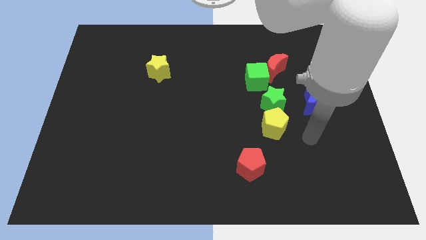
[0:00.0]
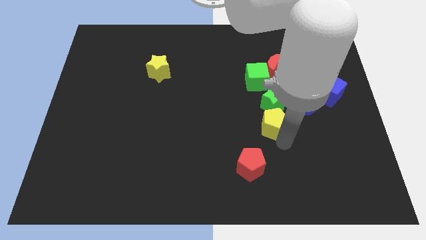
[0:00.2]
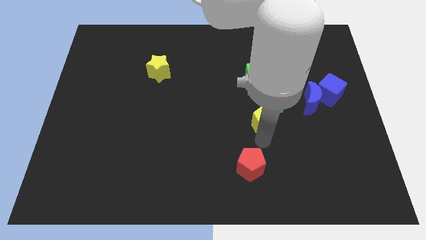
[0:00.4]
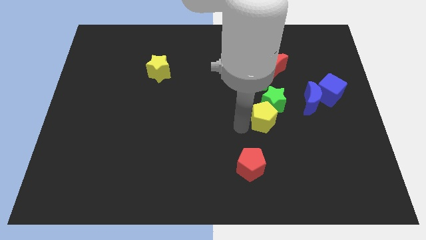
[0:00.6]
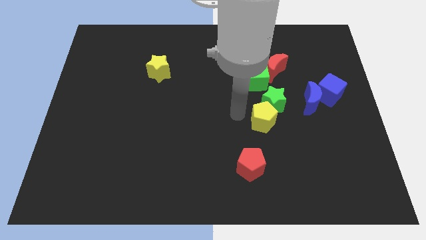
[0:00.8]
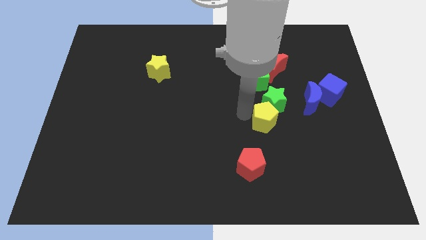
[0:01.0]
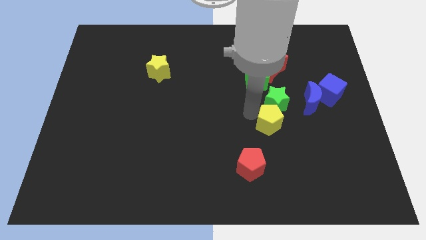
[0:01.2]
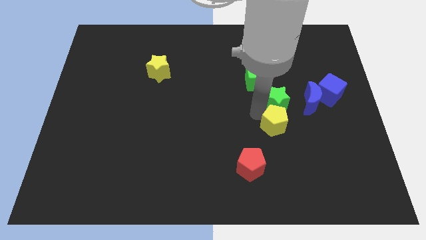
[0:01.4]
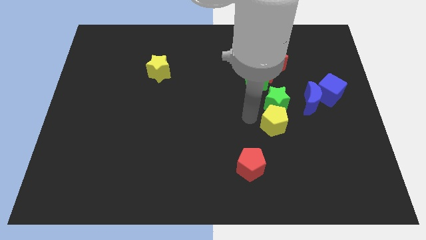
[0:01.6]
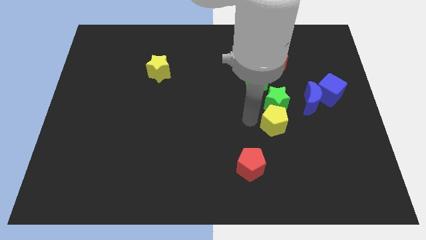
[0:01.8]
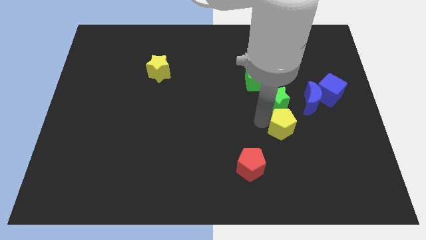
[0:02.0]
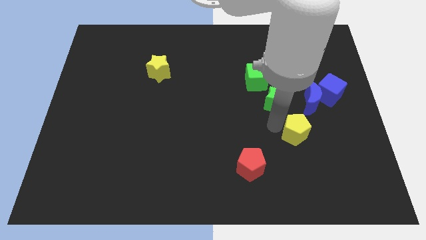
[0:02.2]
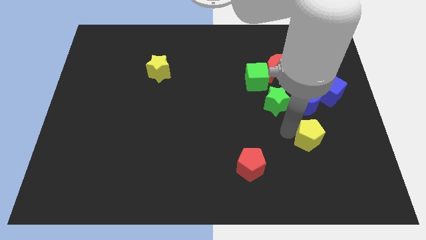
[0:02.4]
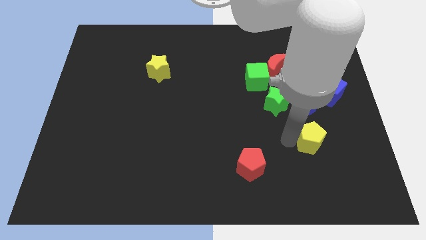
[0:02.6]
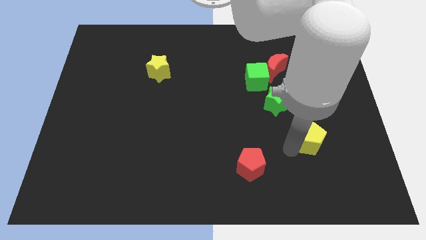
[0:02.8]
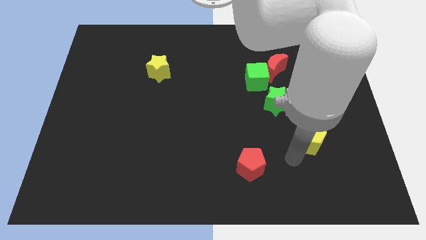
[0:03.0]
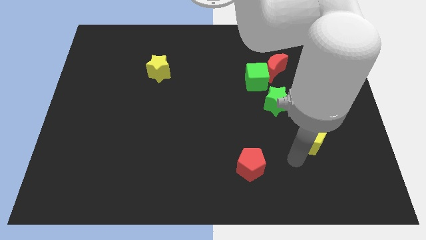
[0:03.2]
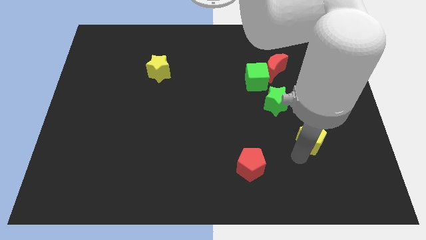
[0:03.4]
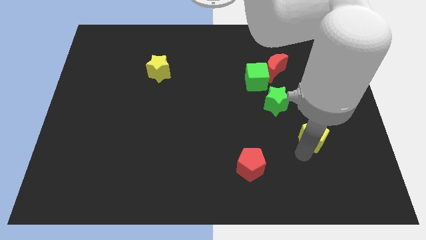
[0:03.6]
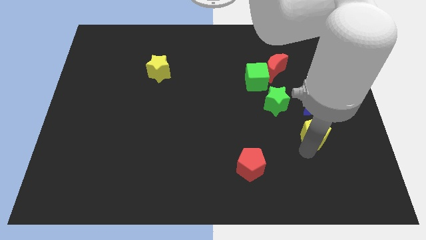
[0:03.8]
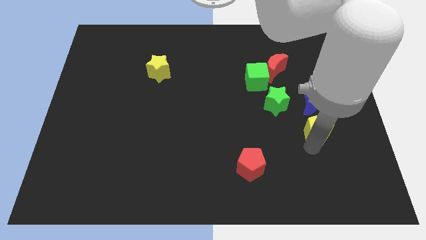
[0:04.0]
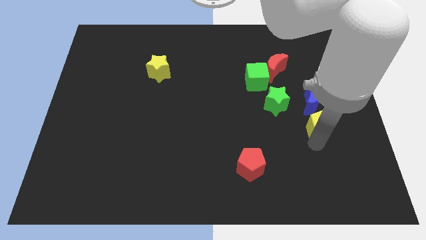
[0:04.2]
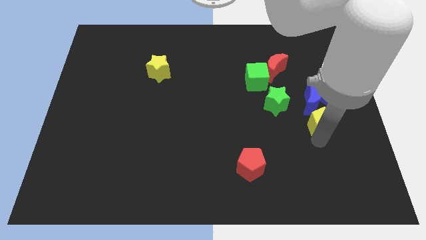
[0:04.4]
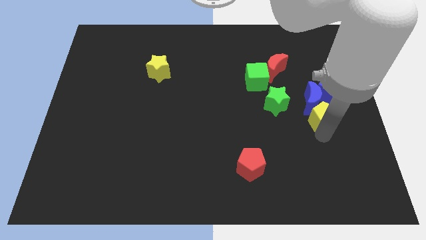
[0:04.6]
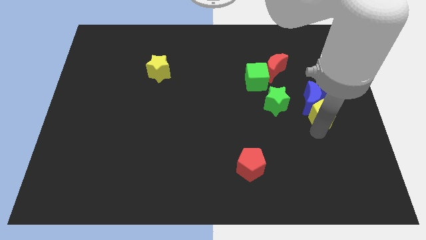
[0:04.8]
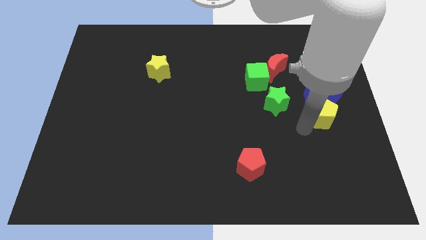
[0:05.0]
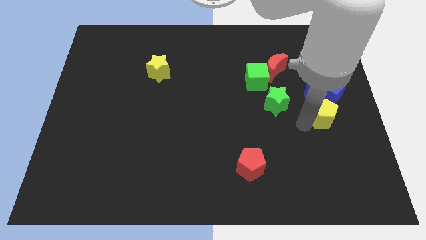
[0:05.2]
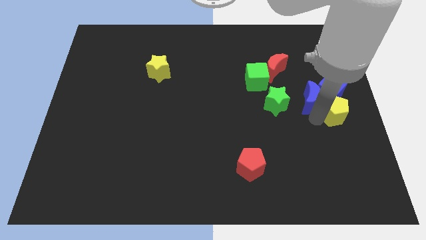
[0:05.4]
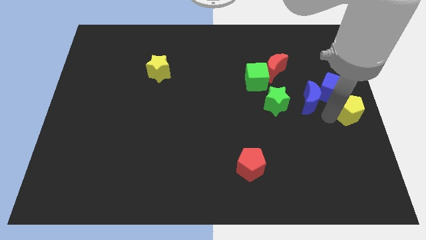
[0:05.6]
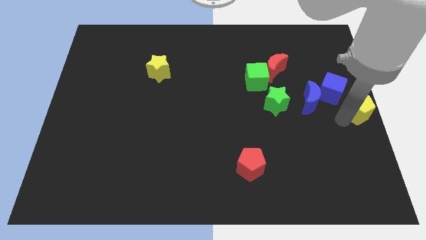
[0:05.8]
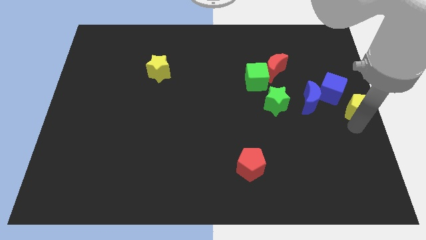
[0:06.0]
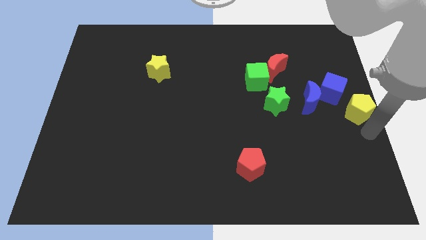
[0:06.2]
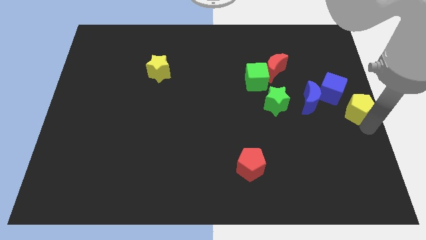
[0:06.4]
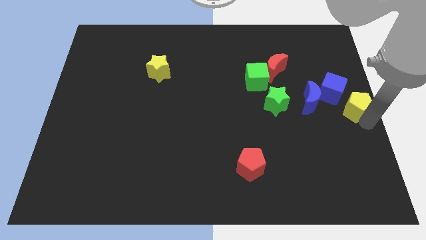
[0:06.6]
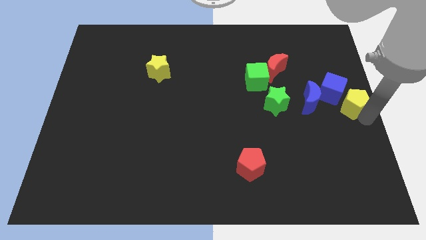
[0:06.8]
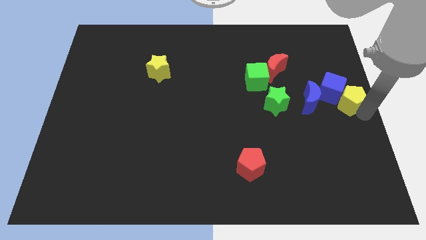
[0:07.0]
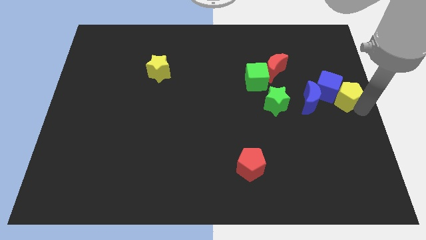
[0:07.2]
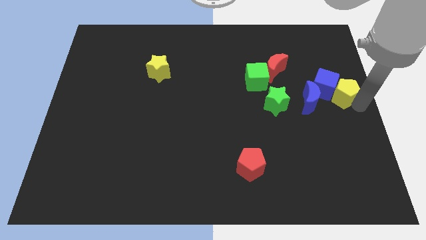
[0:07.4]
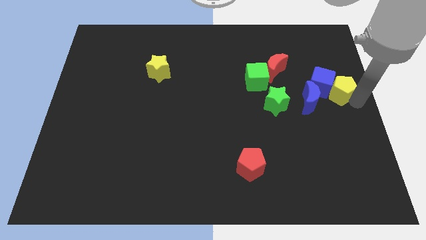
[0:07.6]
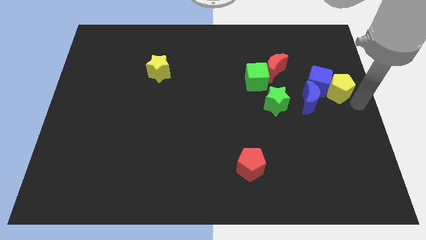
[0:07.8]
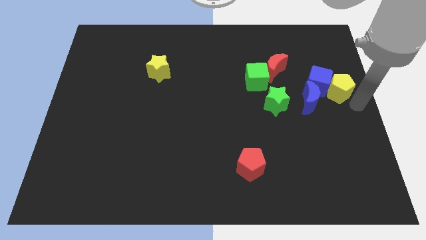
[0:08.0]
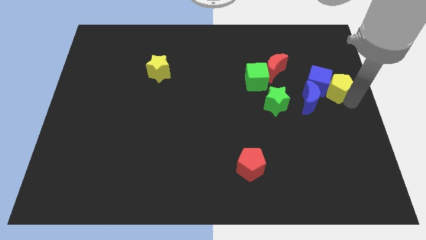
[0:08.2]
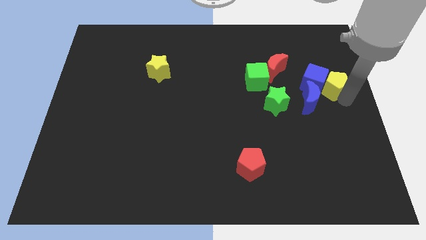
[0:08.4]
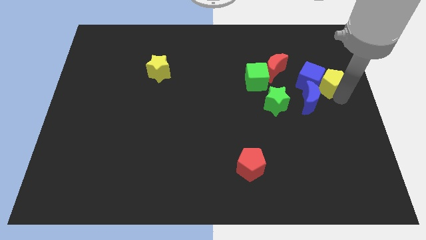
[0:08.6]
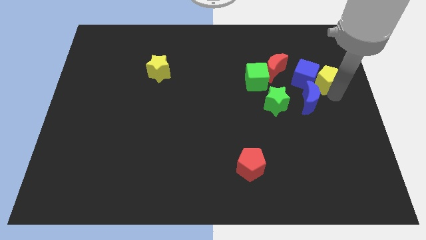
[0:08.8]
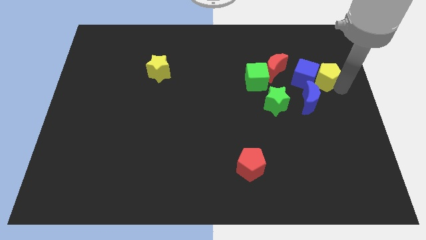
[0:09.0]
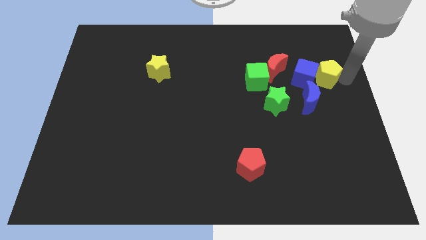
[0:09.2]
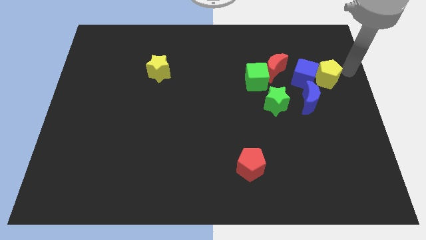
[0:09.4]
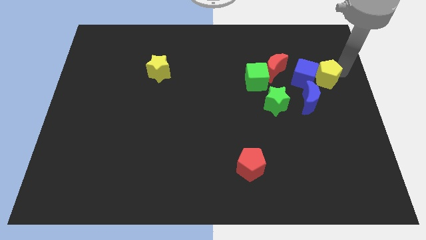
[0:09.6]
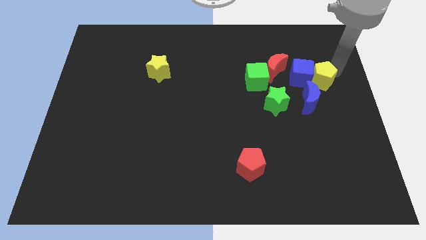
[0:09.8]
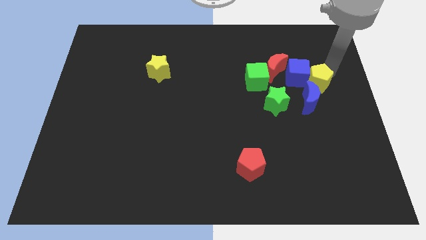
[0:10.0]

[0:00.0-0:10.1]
put the yellow pentagon to the bottom right side of the red moon

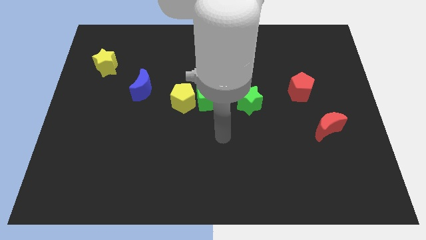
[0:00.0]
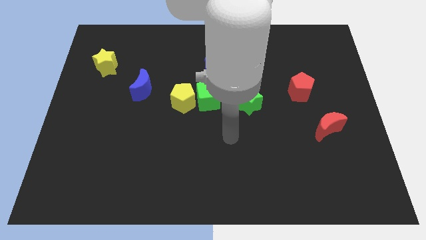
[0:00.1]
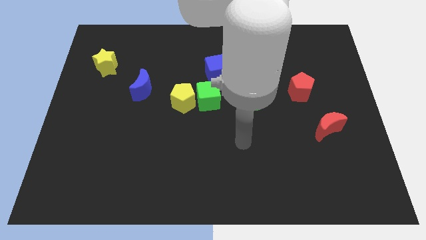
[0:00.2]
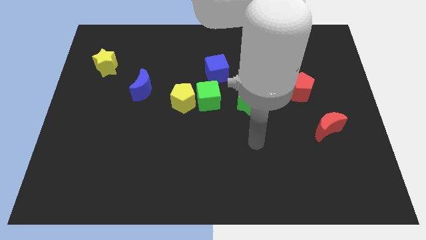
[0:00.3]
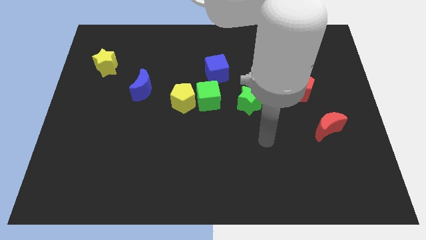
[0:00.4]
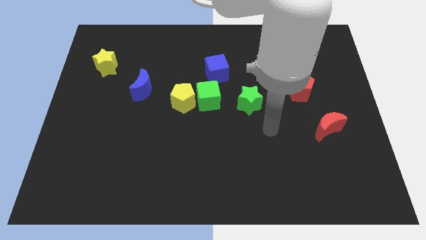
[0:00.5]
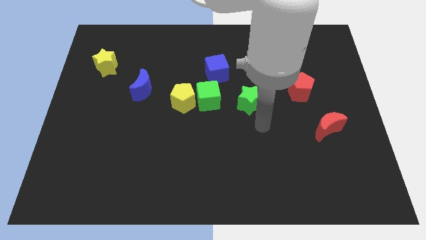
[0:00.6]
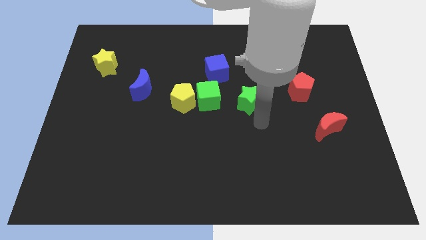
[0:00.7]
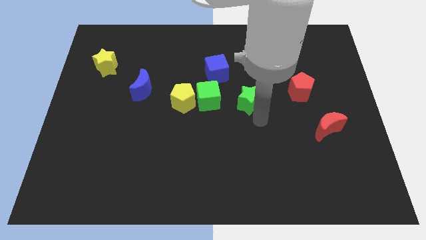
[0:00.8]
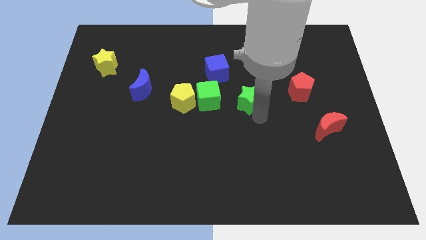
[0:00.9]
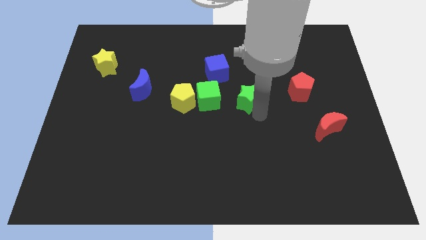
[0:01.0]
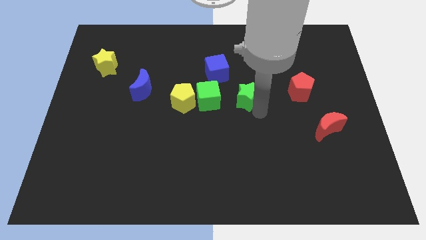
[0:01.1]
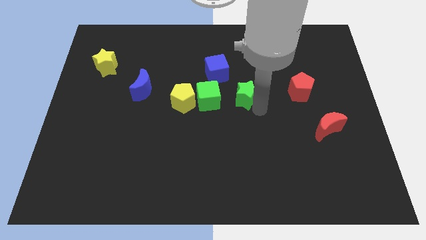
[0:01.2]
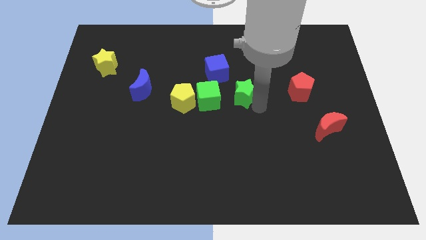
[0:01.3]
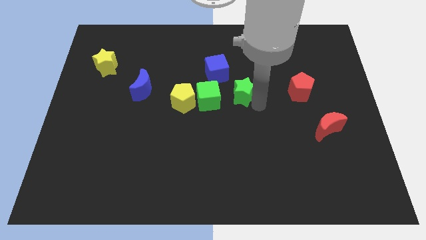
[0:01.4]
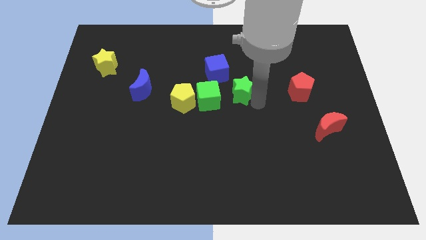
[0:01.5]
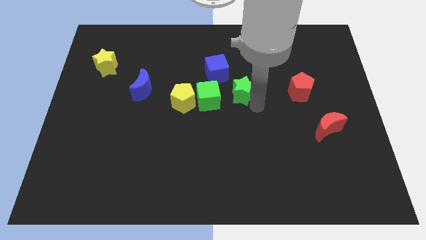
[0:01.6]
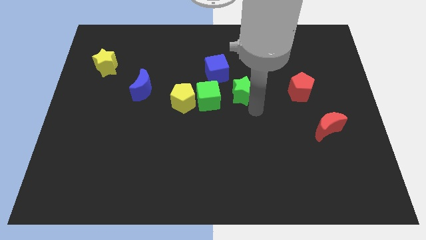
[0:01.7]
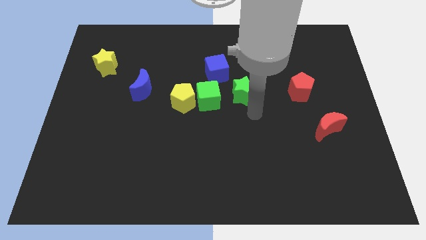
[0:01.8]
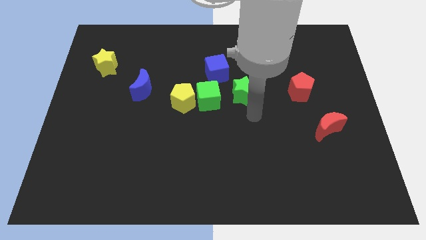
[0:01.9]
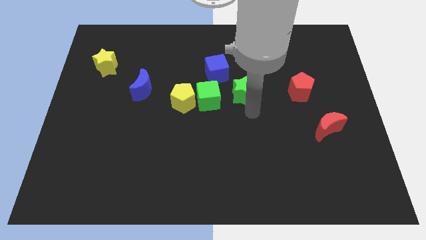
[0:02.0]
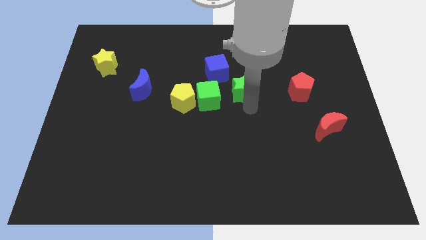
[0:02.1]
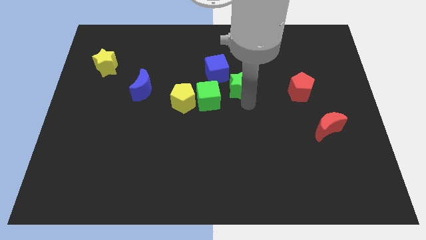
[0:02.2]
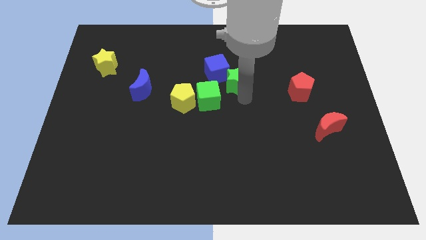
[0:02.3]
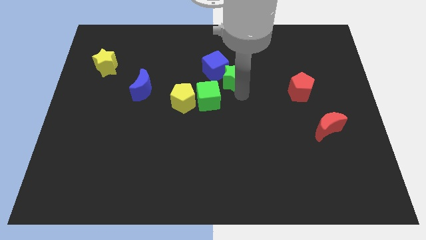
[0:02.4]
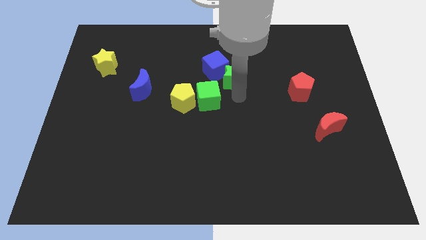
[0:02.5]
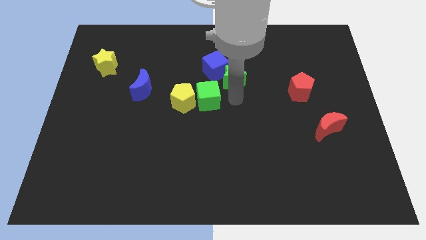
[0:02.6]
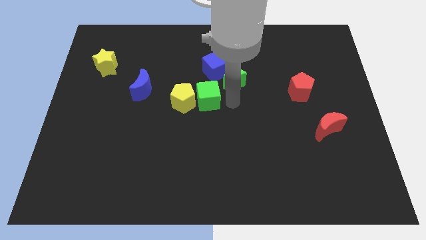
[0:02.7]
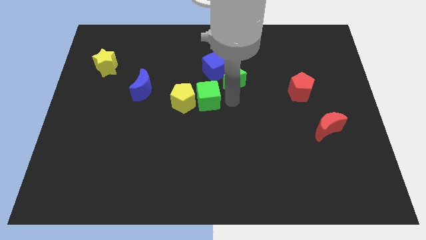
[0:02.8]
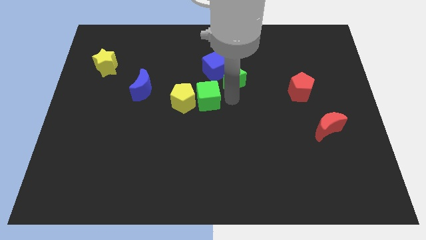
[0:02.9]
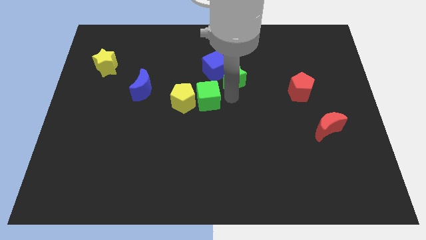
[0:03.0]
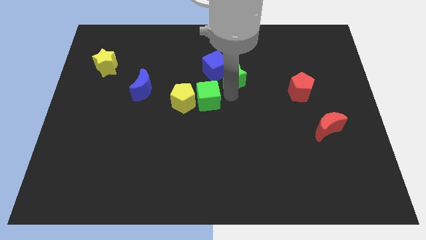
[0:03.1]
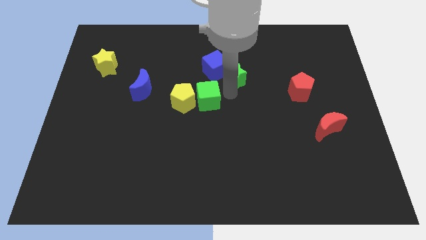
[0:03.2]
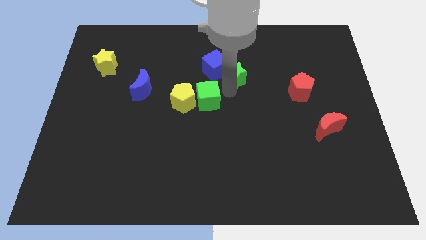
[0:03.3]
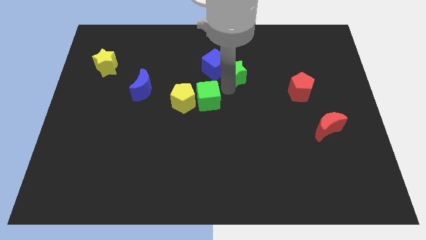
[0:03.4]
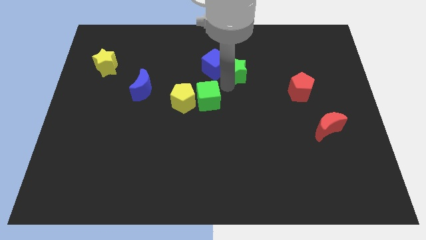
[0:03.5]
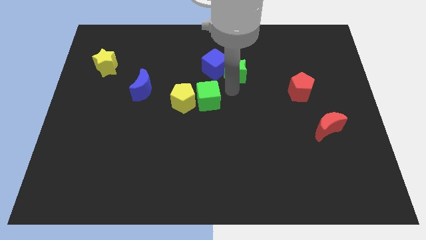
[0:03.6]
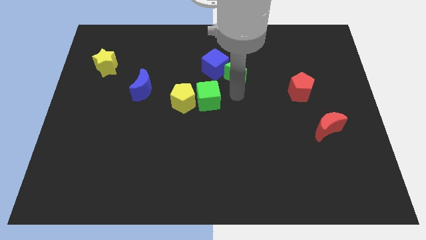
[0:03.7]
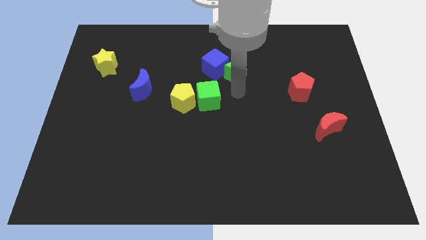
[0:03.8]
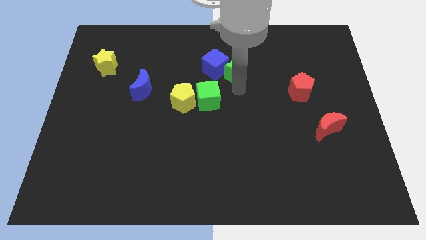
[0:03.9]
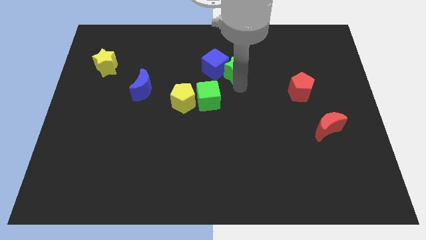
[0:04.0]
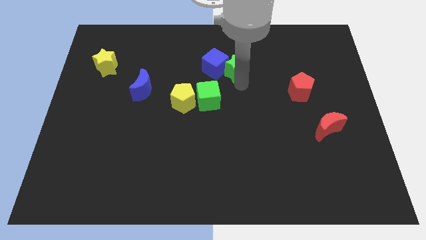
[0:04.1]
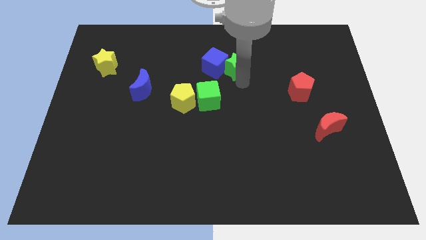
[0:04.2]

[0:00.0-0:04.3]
put the green star diagonally up and to the right of the blue cube
